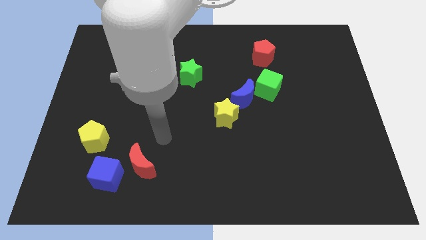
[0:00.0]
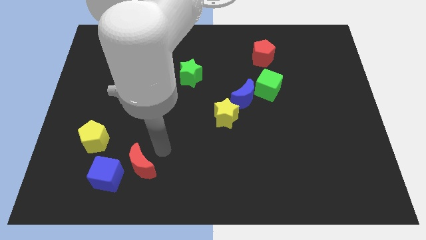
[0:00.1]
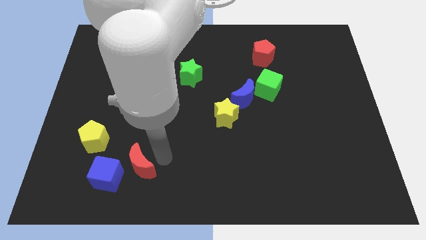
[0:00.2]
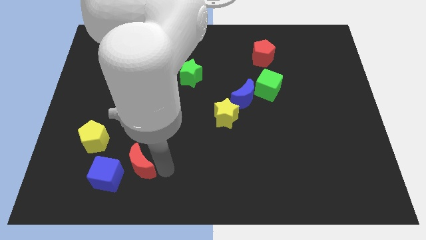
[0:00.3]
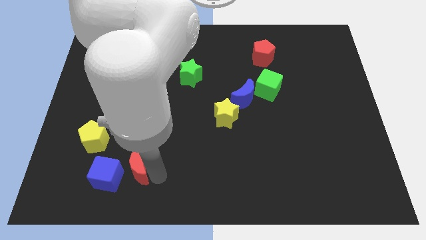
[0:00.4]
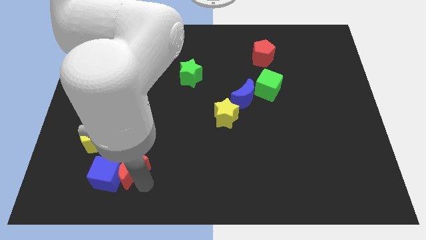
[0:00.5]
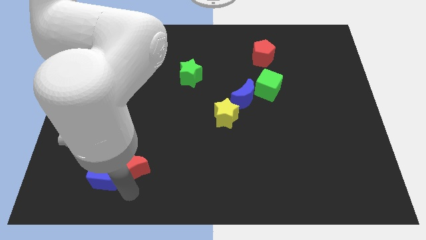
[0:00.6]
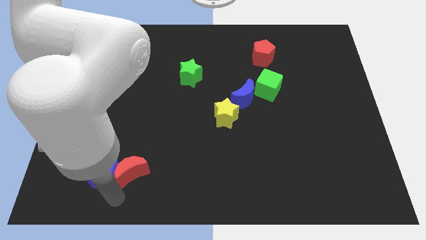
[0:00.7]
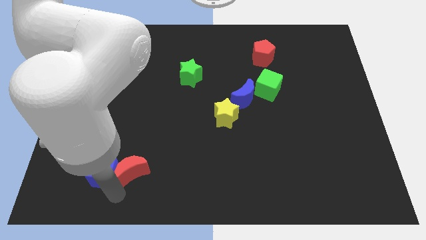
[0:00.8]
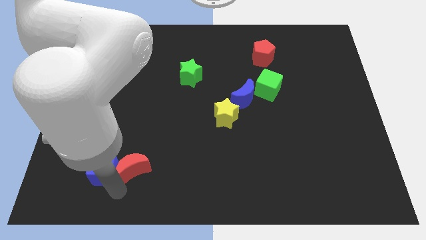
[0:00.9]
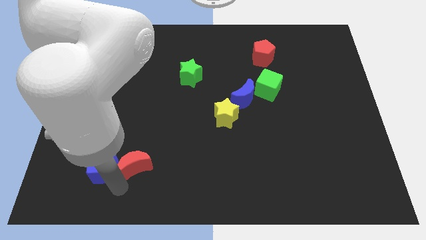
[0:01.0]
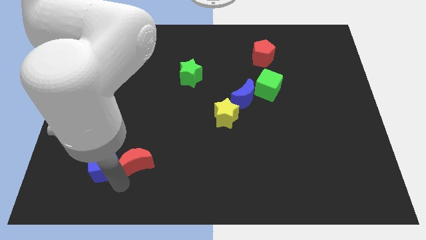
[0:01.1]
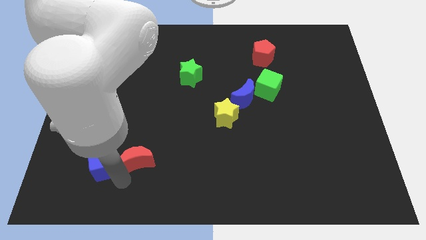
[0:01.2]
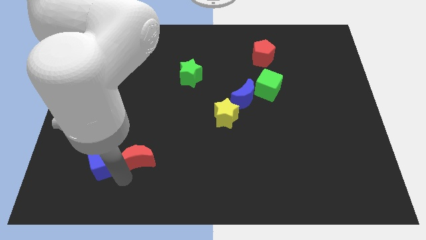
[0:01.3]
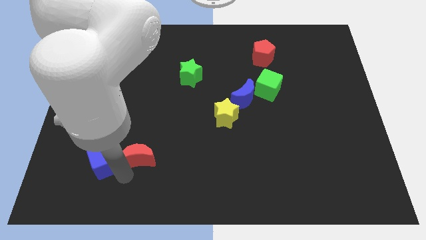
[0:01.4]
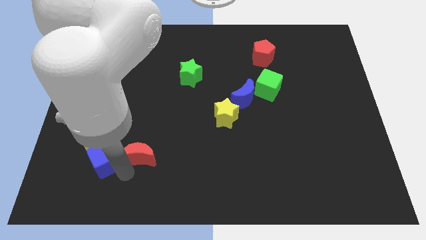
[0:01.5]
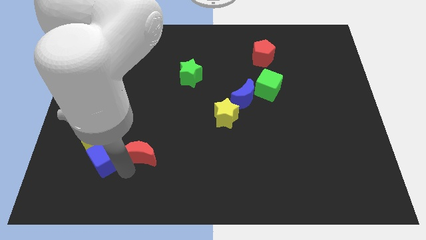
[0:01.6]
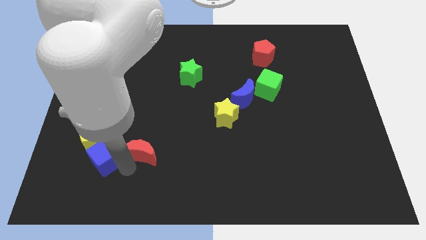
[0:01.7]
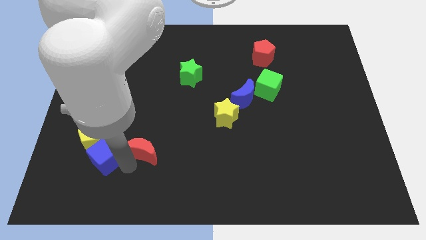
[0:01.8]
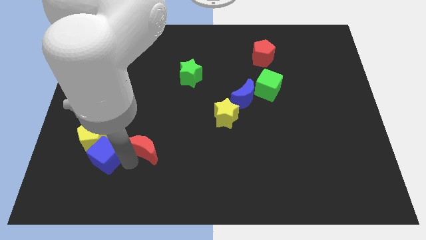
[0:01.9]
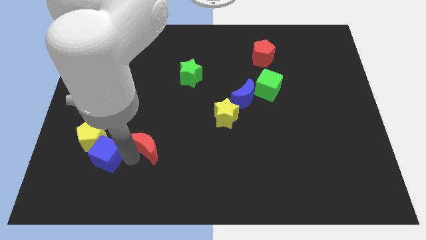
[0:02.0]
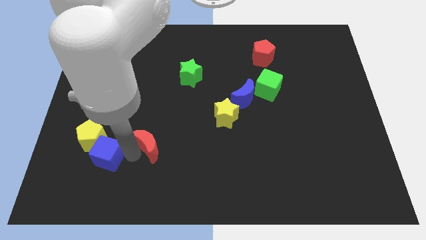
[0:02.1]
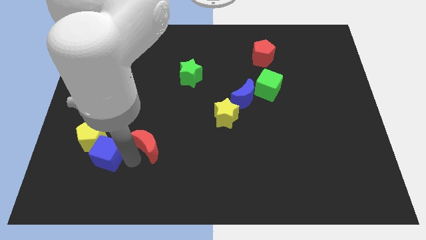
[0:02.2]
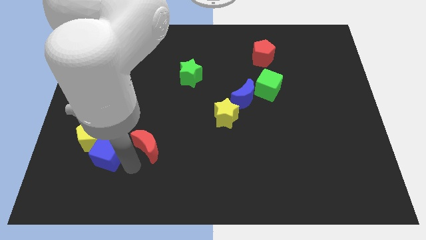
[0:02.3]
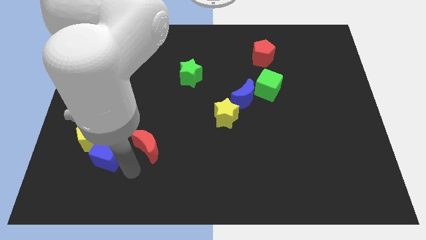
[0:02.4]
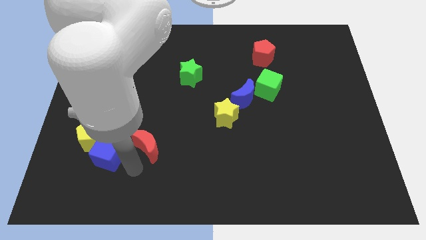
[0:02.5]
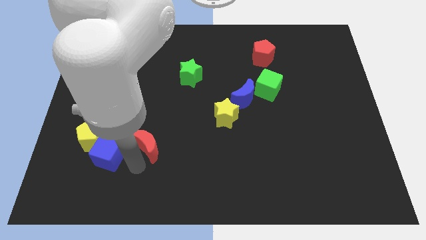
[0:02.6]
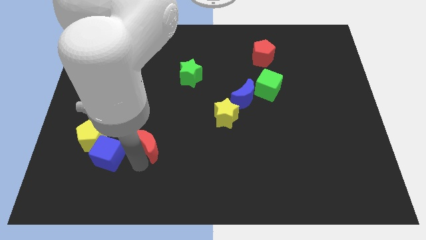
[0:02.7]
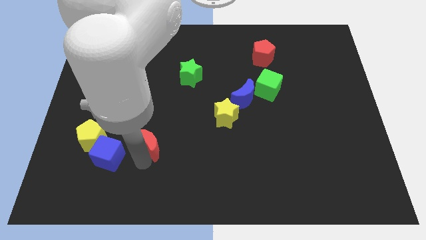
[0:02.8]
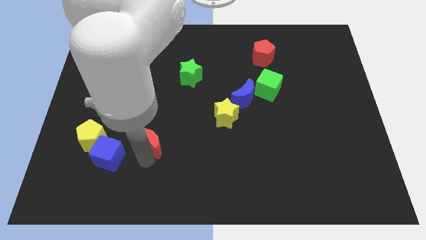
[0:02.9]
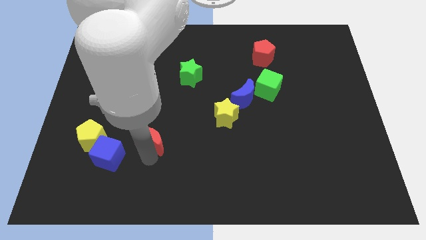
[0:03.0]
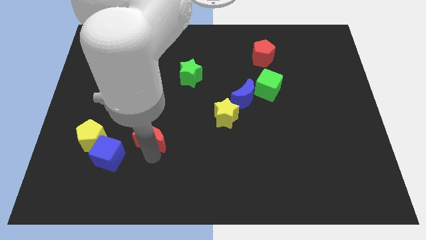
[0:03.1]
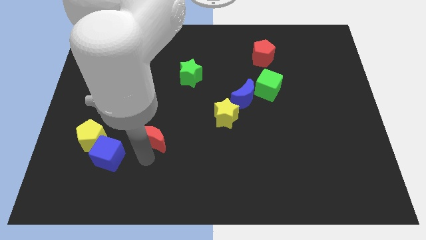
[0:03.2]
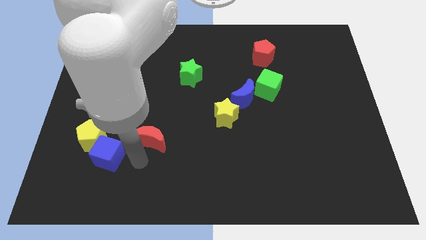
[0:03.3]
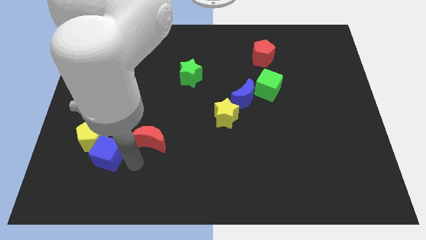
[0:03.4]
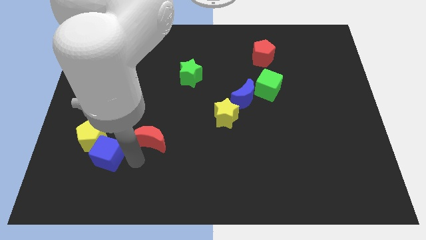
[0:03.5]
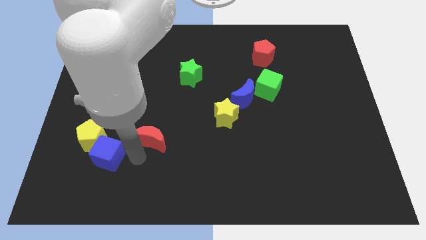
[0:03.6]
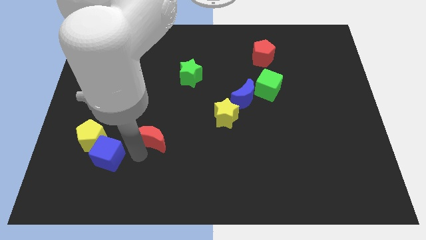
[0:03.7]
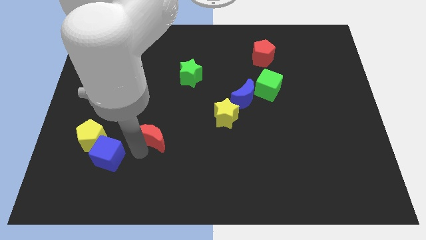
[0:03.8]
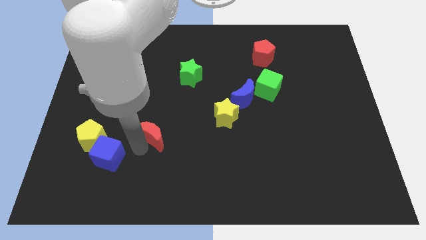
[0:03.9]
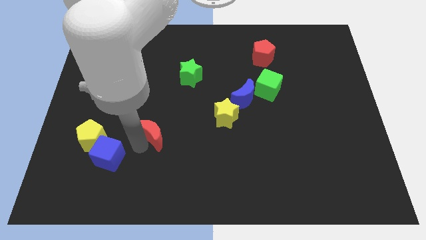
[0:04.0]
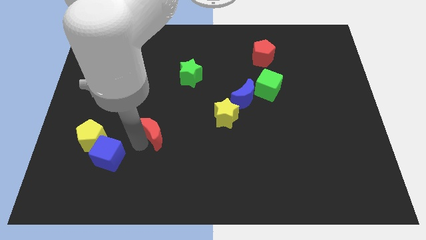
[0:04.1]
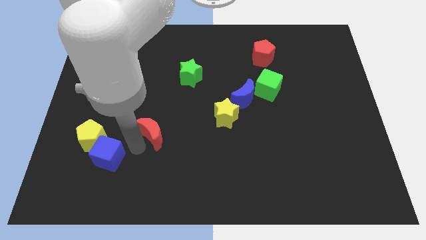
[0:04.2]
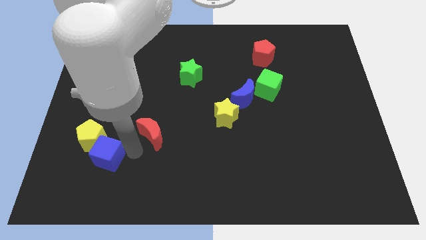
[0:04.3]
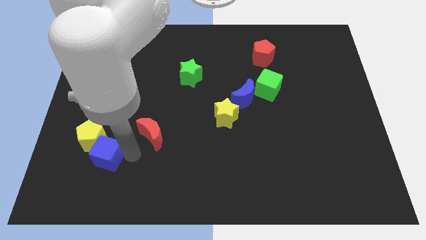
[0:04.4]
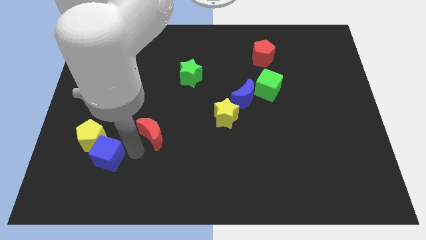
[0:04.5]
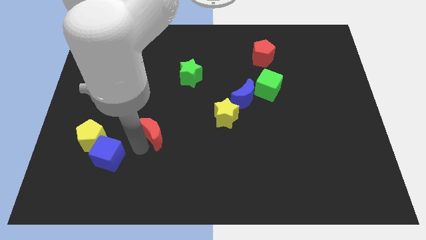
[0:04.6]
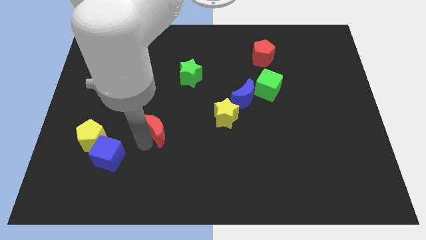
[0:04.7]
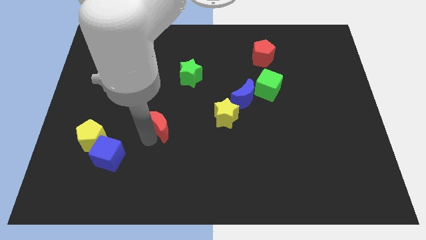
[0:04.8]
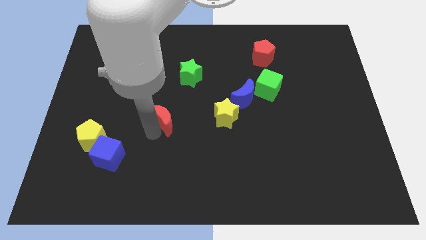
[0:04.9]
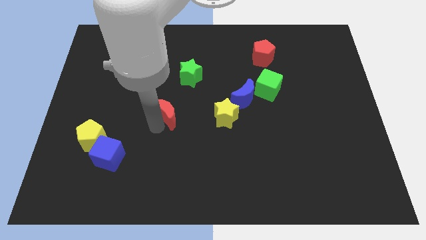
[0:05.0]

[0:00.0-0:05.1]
push the red moon to the middle
